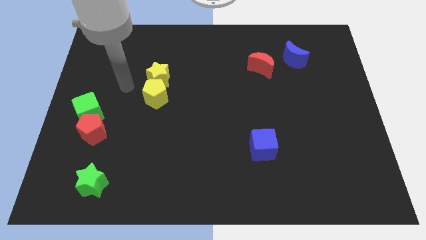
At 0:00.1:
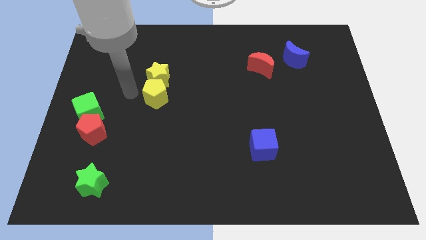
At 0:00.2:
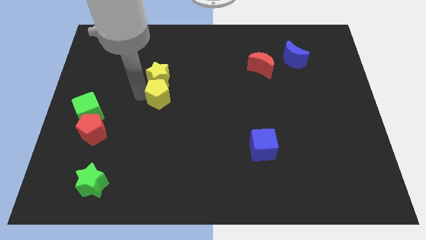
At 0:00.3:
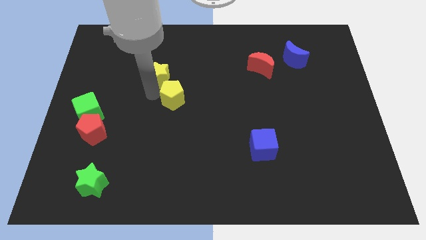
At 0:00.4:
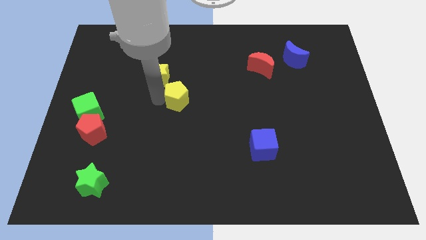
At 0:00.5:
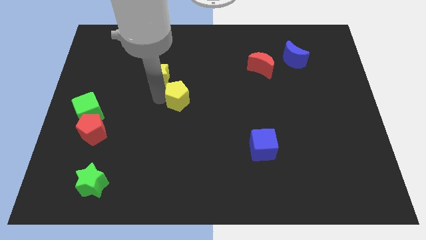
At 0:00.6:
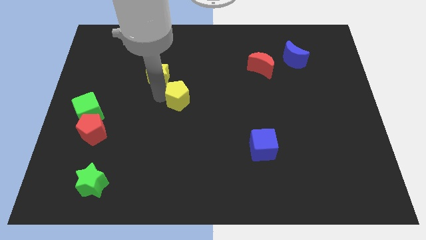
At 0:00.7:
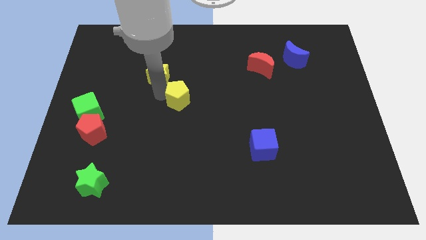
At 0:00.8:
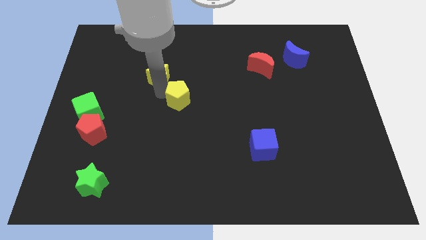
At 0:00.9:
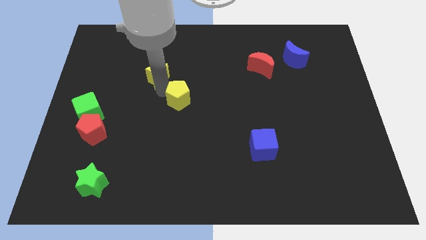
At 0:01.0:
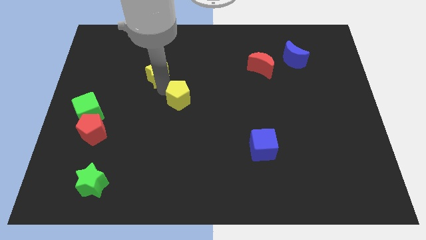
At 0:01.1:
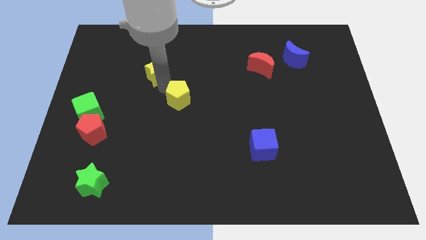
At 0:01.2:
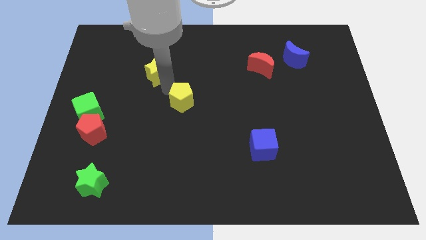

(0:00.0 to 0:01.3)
separate the yellow star from the yellow pentagon

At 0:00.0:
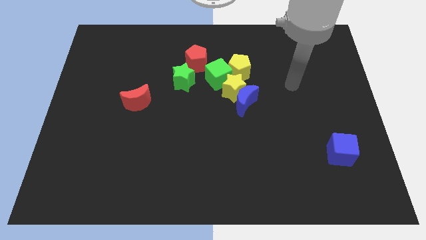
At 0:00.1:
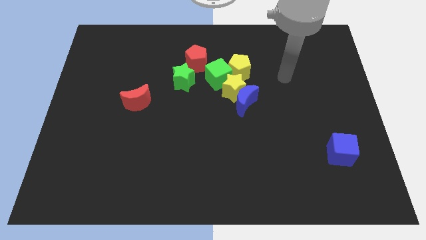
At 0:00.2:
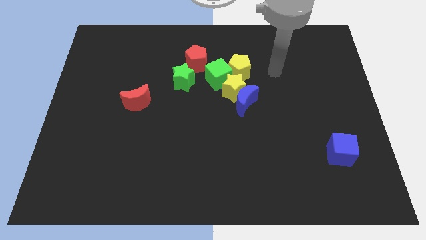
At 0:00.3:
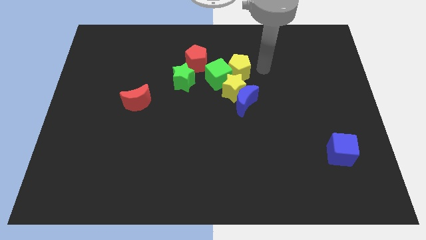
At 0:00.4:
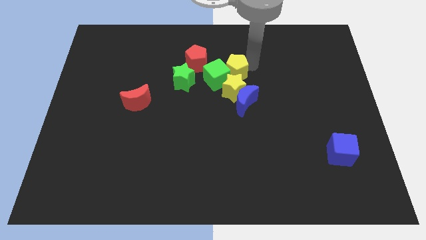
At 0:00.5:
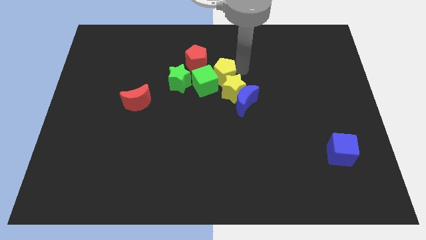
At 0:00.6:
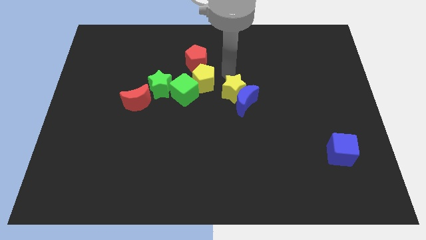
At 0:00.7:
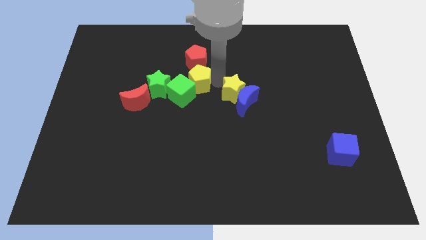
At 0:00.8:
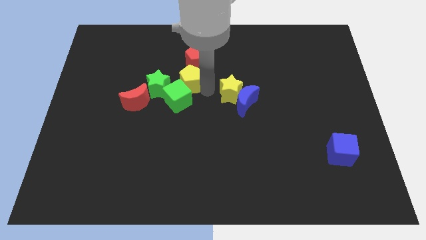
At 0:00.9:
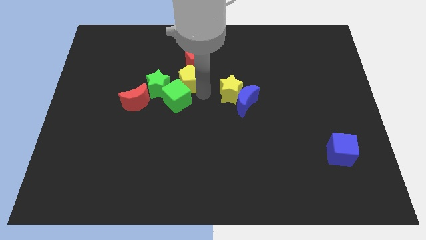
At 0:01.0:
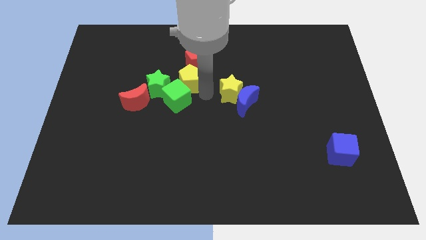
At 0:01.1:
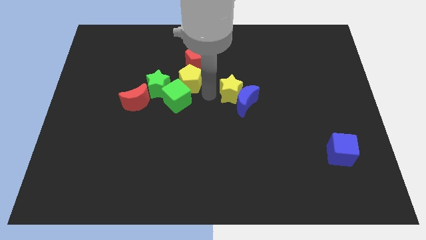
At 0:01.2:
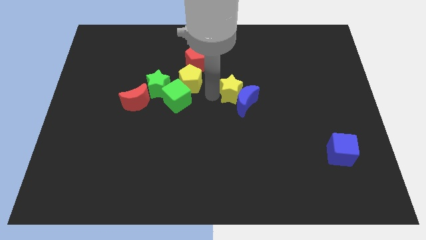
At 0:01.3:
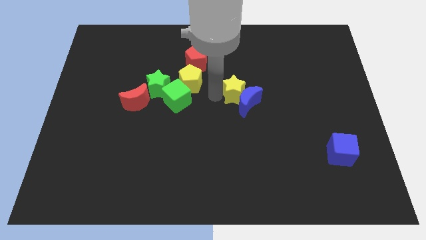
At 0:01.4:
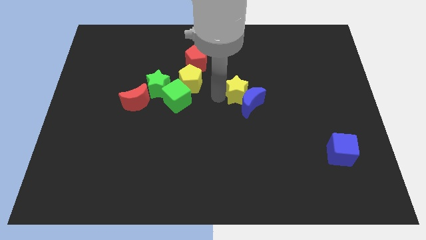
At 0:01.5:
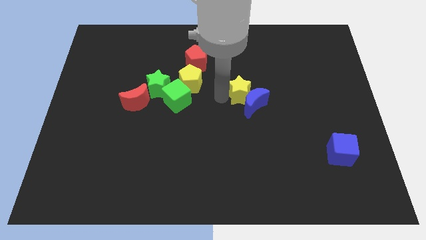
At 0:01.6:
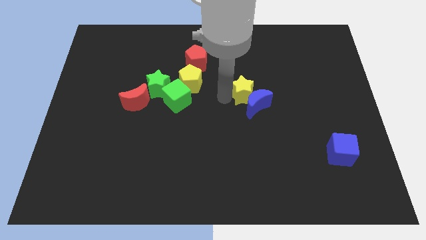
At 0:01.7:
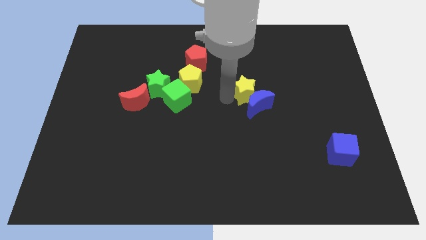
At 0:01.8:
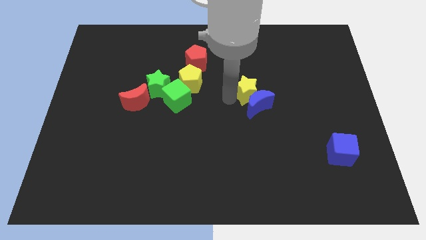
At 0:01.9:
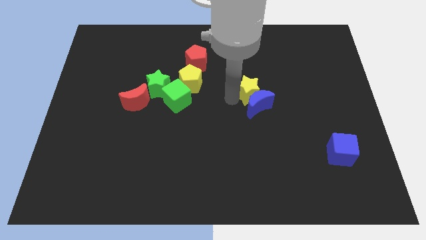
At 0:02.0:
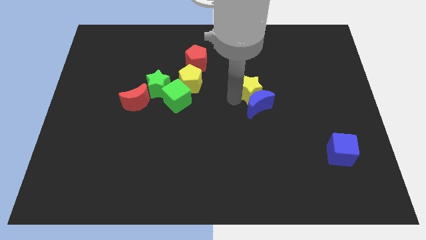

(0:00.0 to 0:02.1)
pull the yellow star apart from the clump

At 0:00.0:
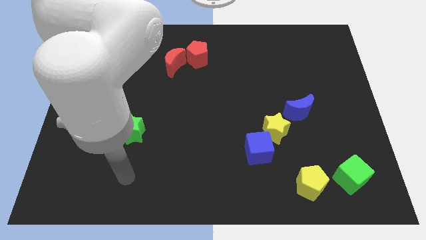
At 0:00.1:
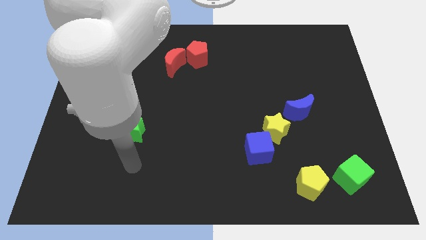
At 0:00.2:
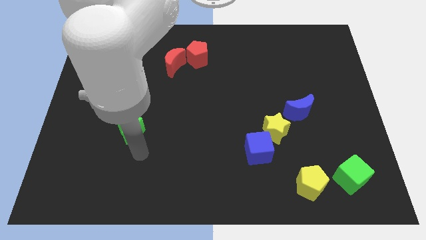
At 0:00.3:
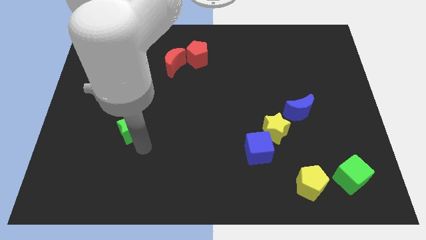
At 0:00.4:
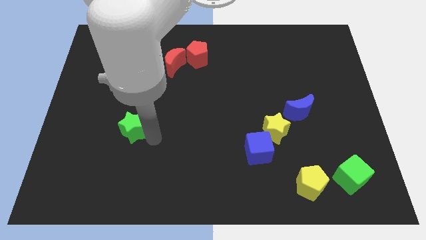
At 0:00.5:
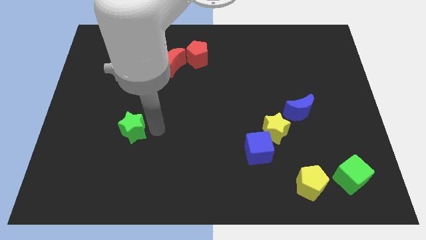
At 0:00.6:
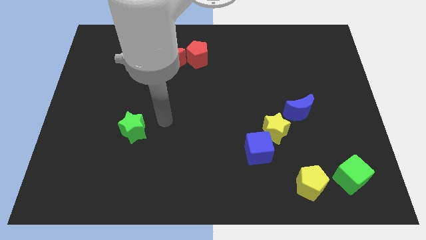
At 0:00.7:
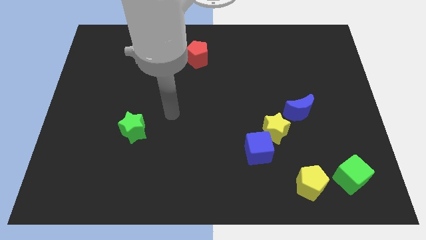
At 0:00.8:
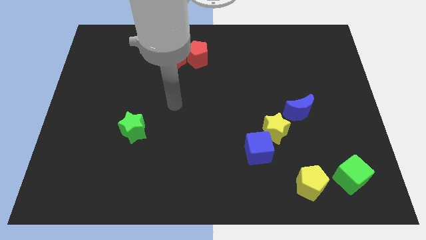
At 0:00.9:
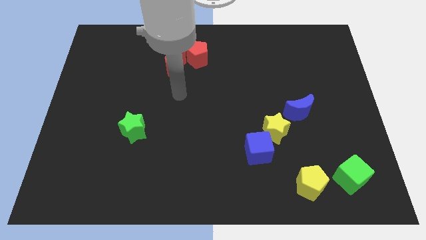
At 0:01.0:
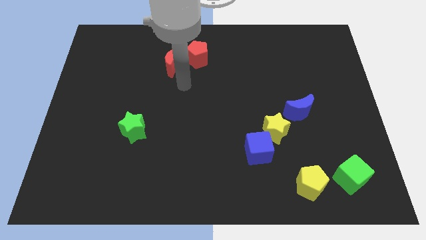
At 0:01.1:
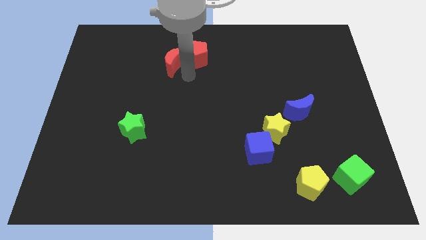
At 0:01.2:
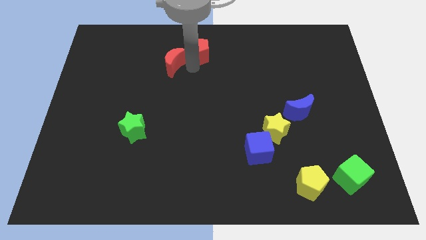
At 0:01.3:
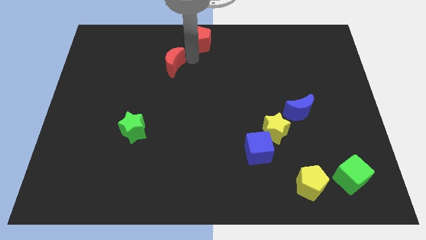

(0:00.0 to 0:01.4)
pull the red moon apart from the red pentagon

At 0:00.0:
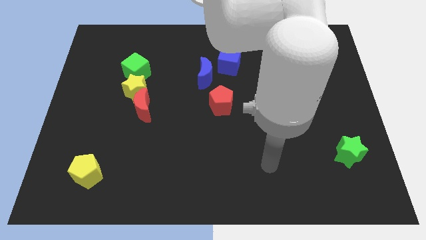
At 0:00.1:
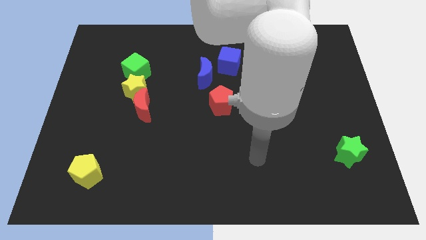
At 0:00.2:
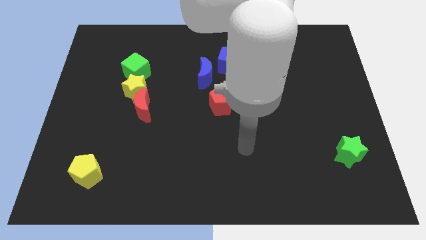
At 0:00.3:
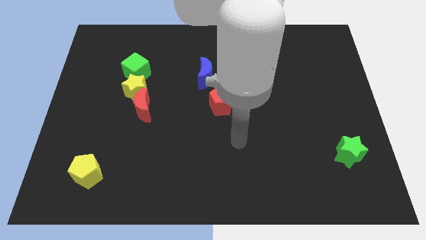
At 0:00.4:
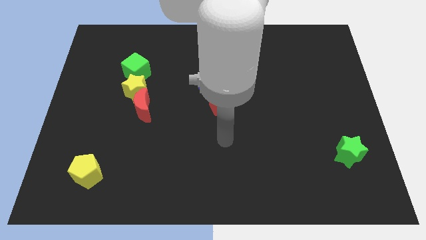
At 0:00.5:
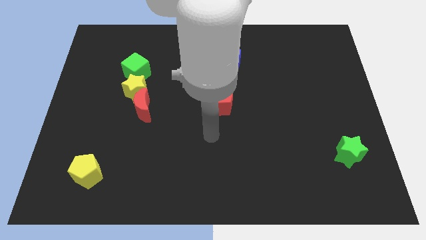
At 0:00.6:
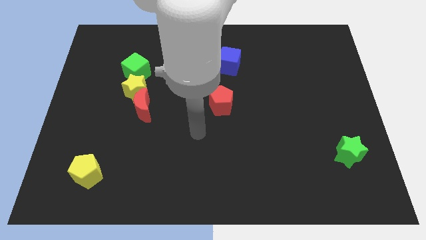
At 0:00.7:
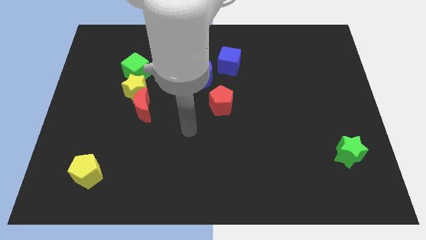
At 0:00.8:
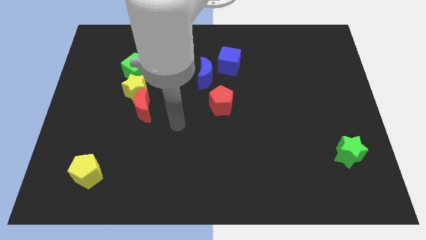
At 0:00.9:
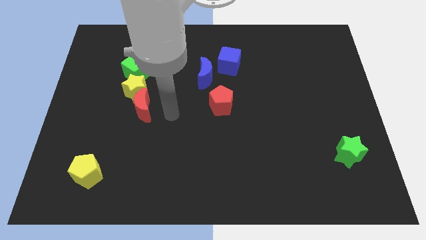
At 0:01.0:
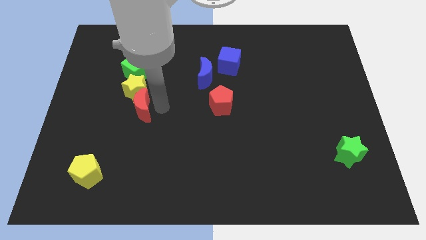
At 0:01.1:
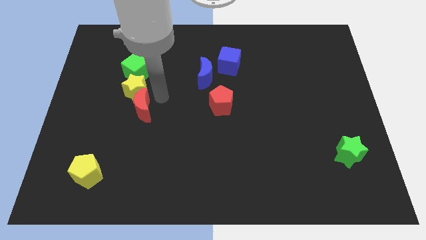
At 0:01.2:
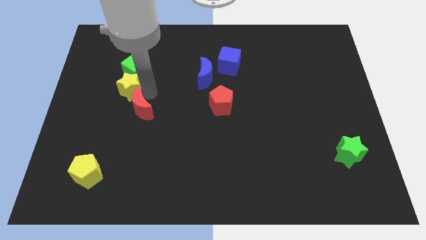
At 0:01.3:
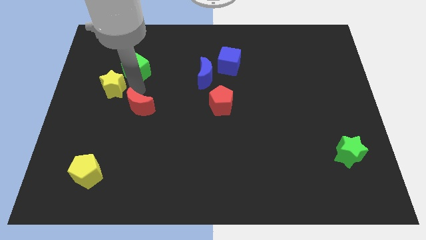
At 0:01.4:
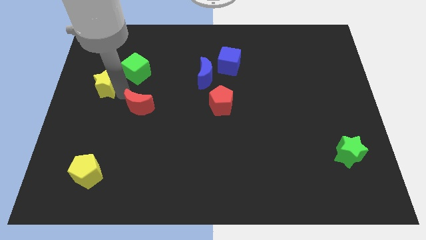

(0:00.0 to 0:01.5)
move the red moon away from the yellow star

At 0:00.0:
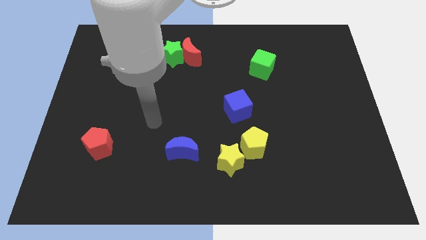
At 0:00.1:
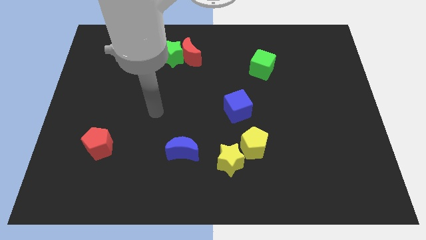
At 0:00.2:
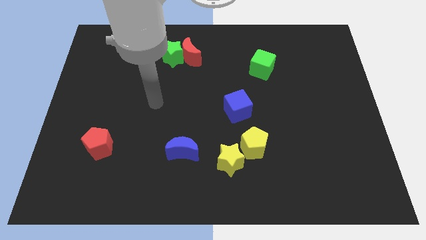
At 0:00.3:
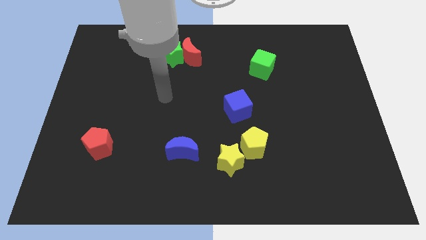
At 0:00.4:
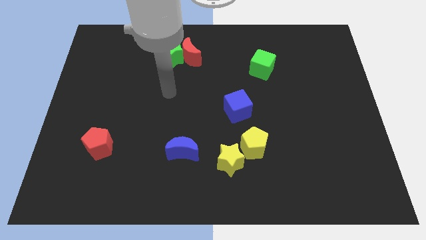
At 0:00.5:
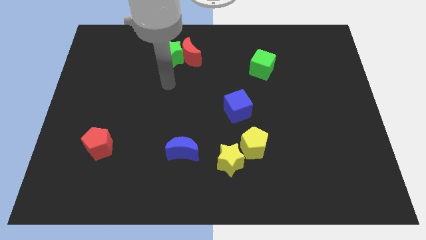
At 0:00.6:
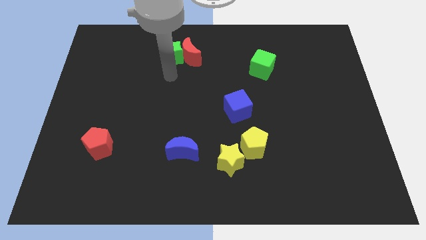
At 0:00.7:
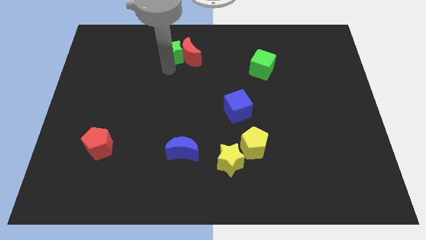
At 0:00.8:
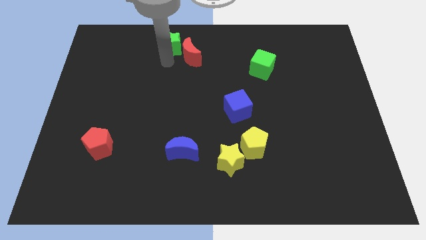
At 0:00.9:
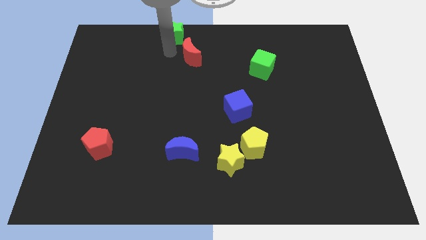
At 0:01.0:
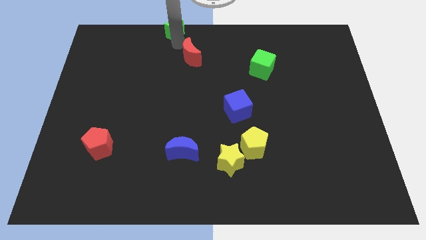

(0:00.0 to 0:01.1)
pull the red moon apart from the green star

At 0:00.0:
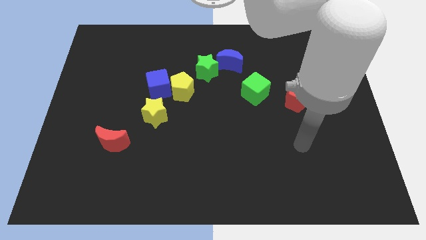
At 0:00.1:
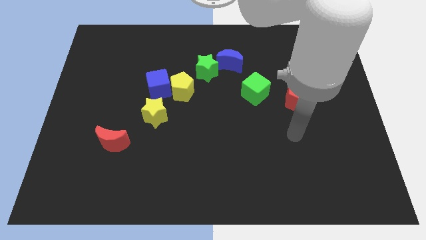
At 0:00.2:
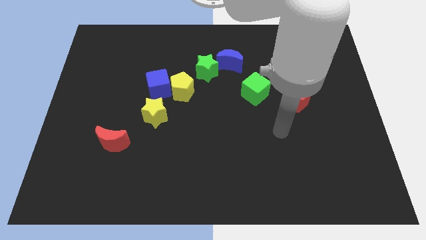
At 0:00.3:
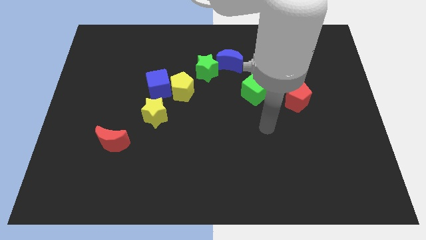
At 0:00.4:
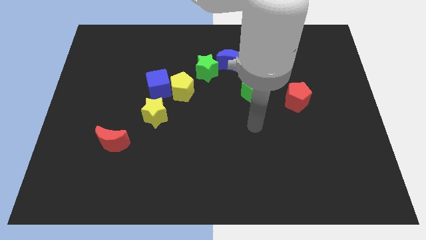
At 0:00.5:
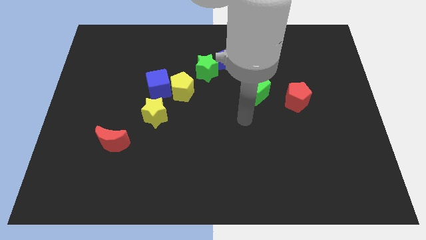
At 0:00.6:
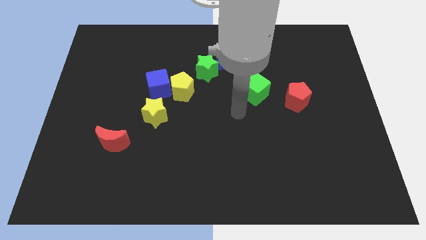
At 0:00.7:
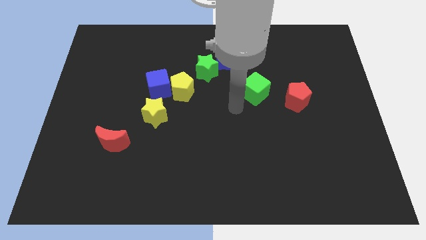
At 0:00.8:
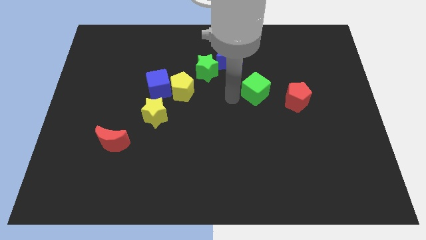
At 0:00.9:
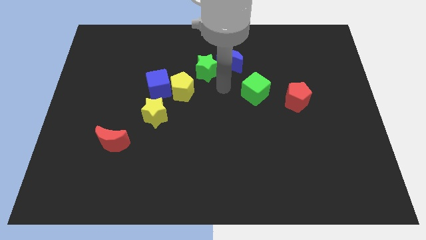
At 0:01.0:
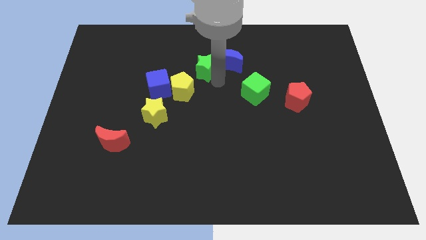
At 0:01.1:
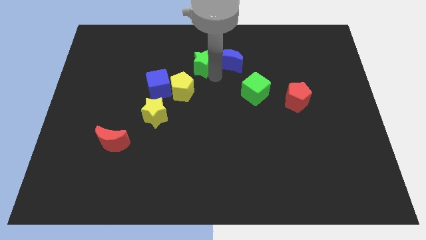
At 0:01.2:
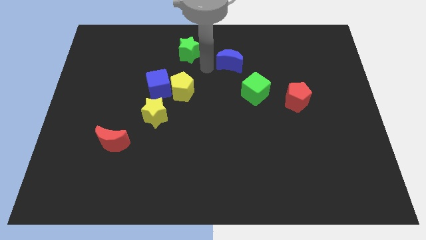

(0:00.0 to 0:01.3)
separate the blue moon from the green star

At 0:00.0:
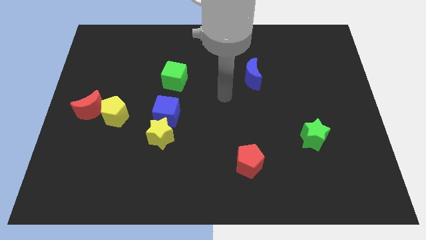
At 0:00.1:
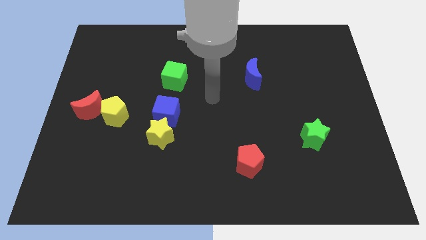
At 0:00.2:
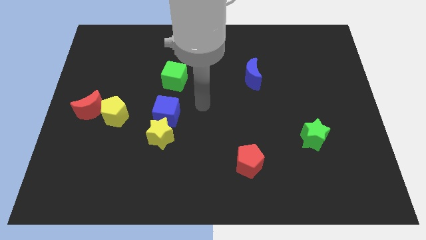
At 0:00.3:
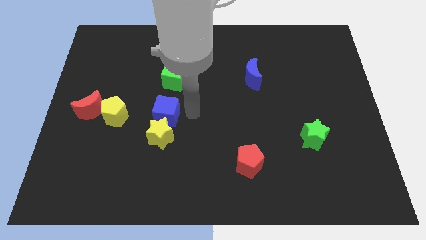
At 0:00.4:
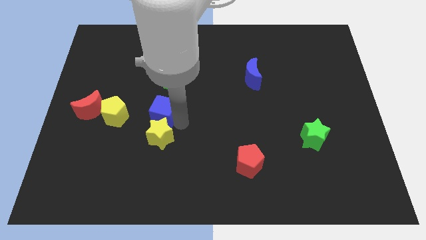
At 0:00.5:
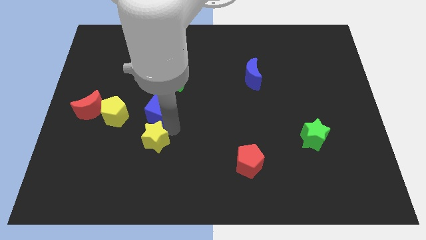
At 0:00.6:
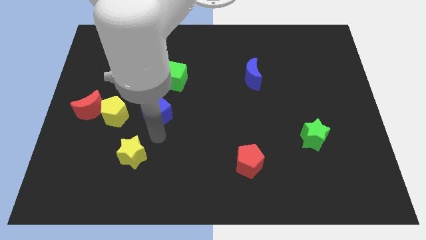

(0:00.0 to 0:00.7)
separate the blue cube from the yellow star
